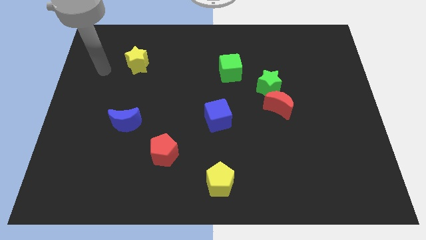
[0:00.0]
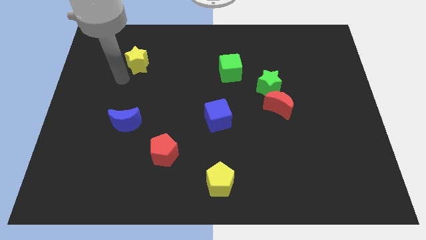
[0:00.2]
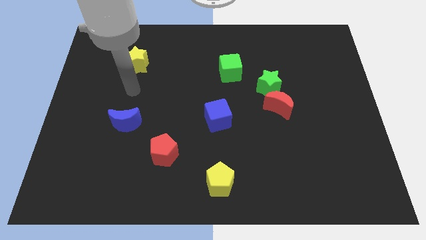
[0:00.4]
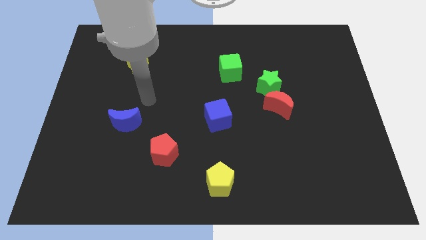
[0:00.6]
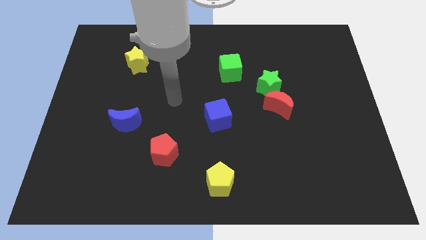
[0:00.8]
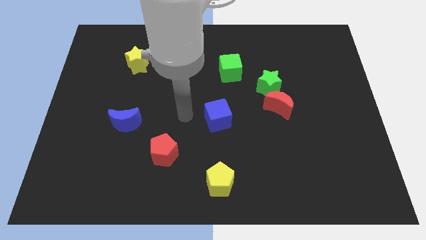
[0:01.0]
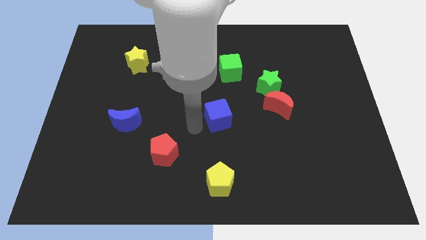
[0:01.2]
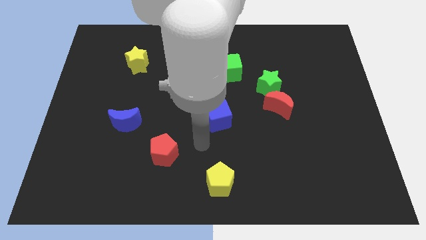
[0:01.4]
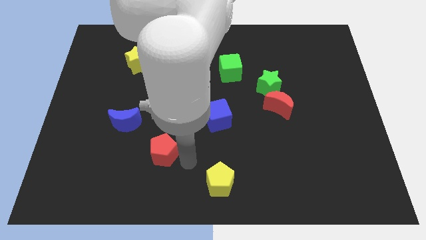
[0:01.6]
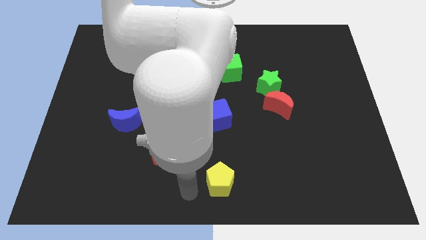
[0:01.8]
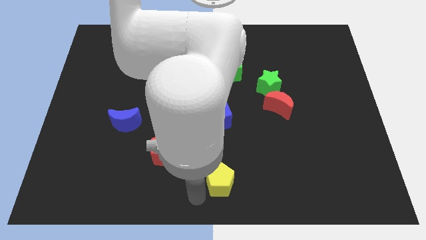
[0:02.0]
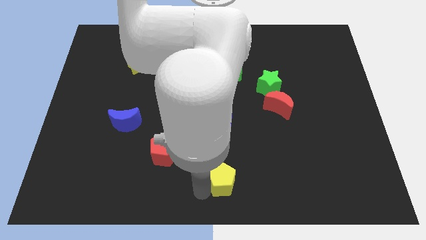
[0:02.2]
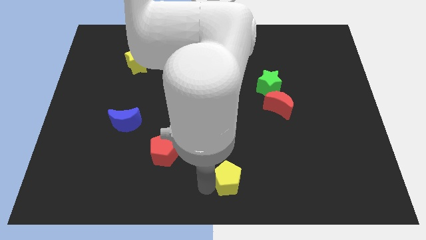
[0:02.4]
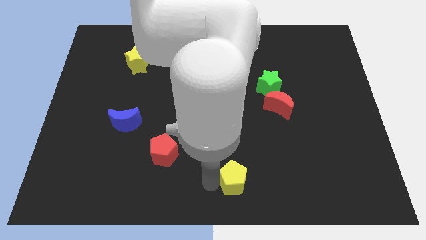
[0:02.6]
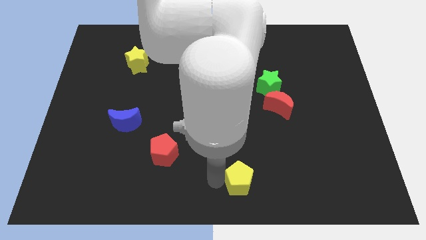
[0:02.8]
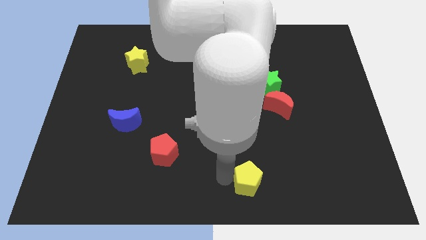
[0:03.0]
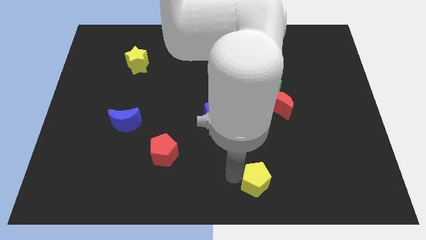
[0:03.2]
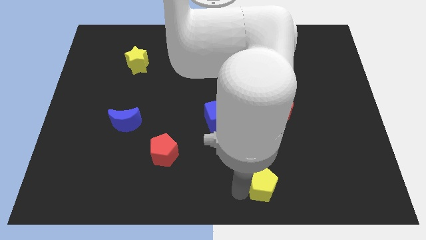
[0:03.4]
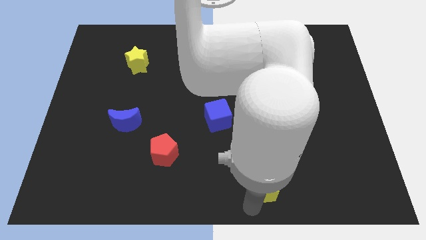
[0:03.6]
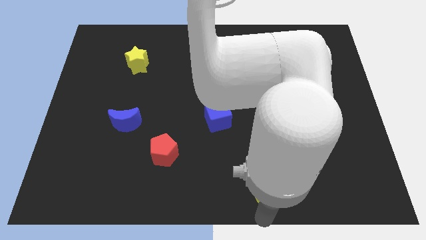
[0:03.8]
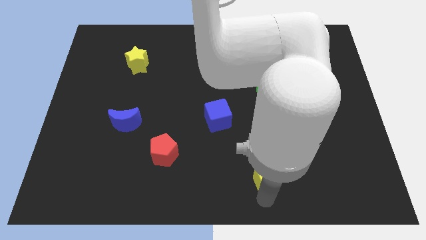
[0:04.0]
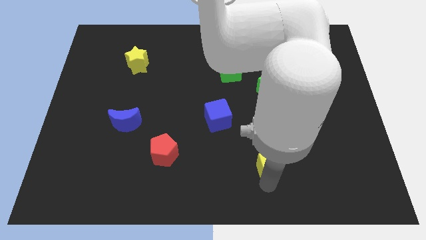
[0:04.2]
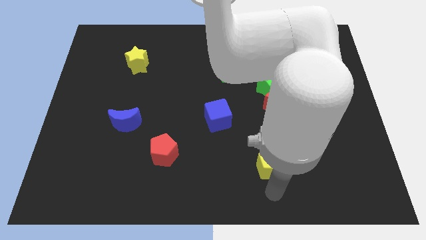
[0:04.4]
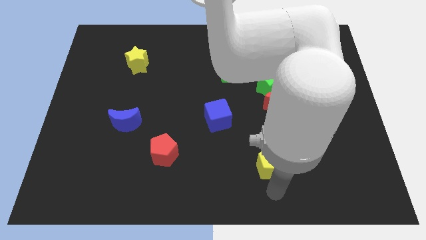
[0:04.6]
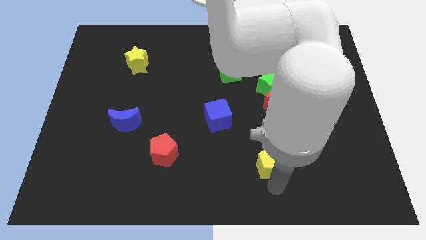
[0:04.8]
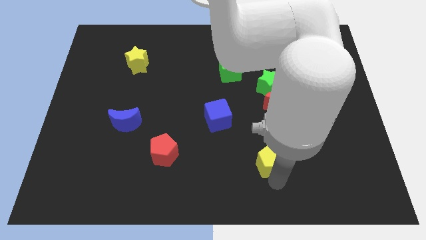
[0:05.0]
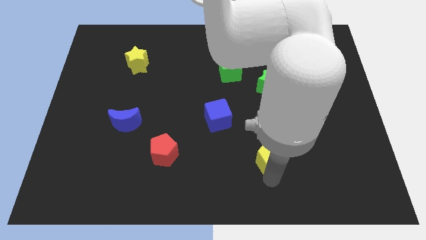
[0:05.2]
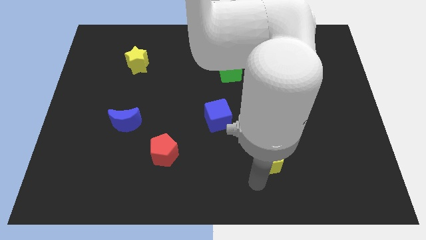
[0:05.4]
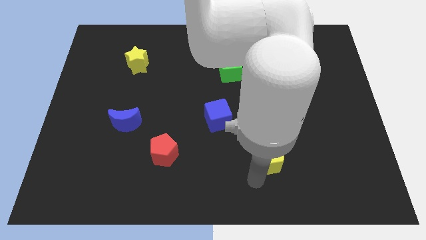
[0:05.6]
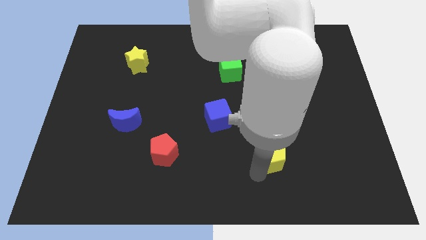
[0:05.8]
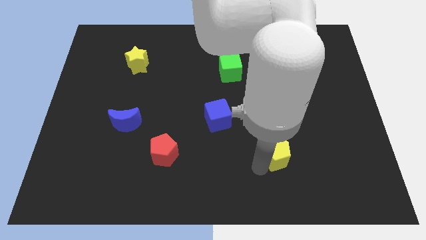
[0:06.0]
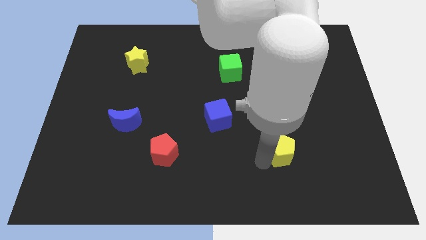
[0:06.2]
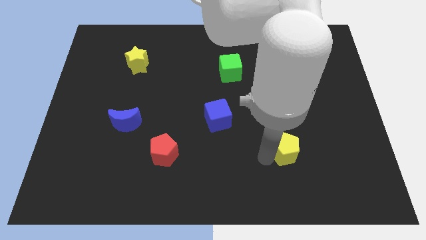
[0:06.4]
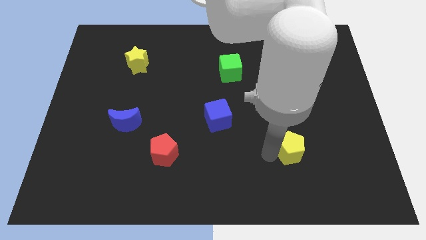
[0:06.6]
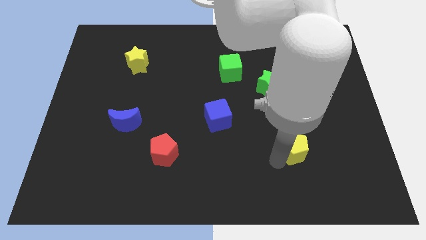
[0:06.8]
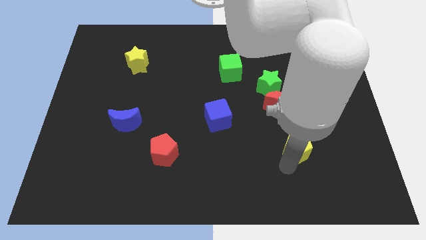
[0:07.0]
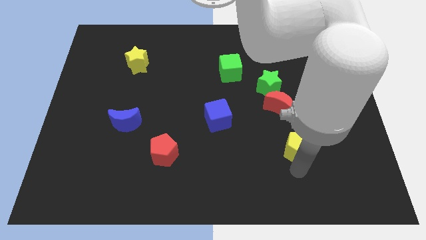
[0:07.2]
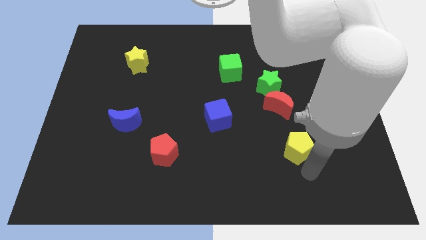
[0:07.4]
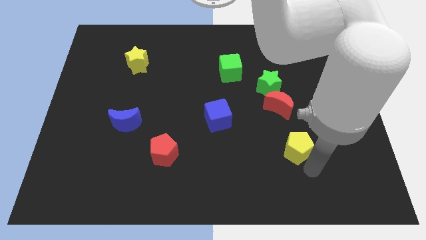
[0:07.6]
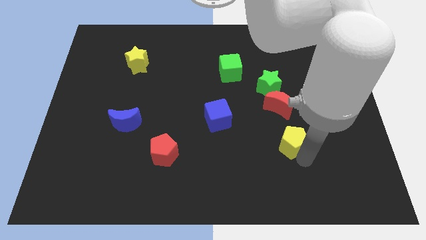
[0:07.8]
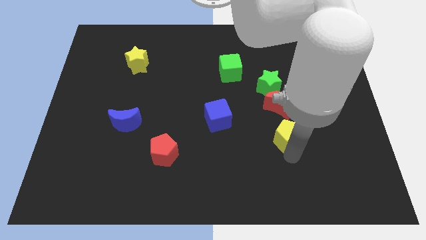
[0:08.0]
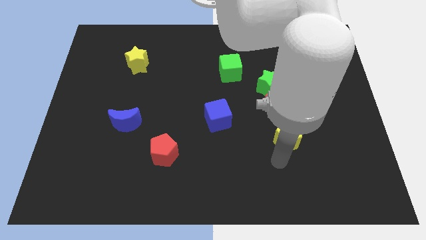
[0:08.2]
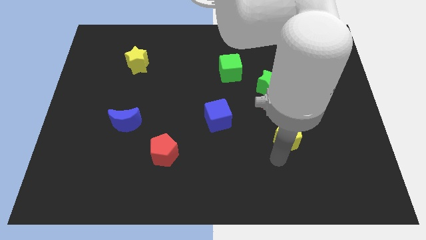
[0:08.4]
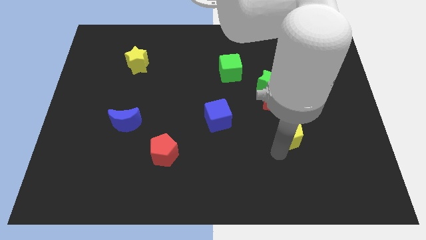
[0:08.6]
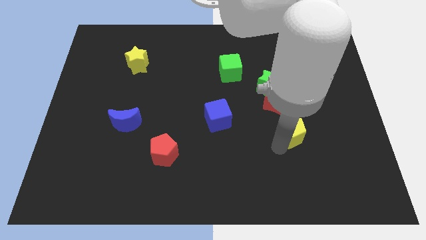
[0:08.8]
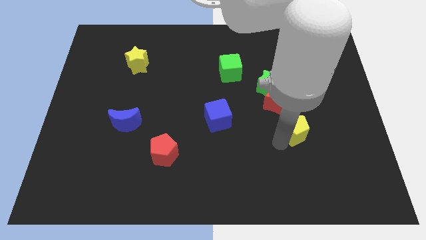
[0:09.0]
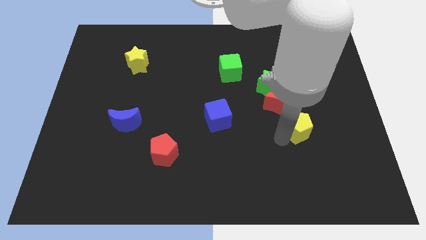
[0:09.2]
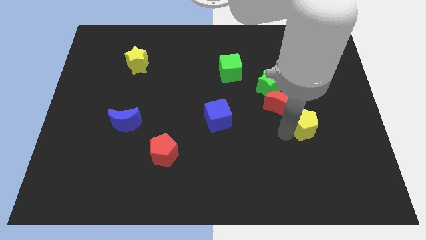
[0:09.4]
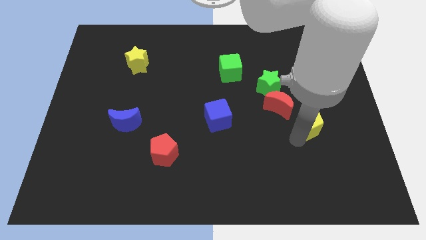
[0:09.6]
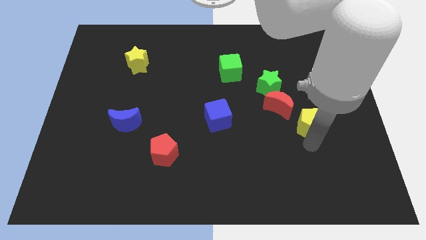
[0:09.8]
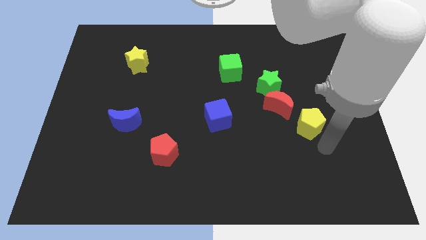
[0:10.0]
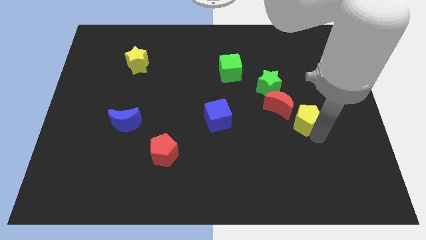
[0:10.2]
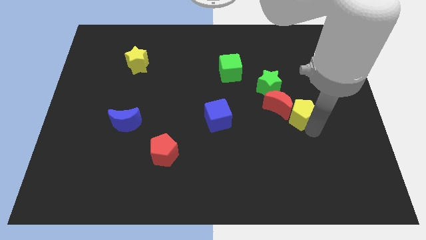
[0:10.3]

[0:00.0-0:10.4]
put the yellow pentagon to the bottom right of the green star

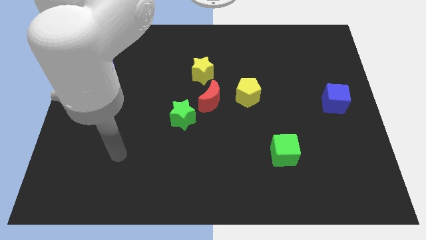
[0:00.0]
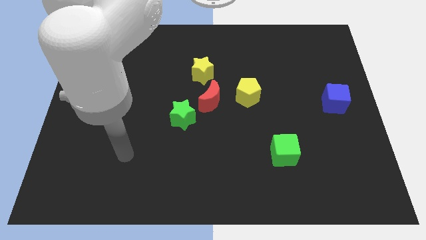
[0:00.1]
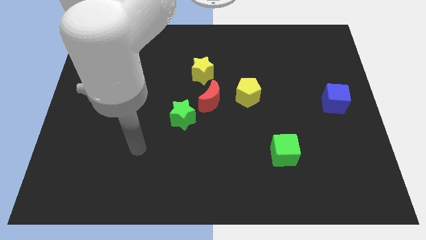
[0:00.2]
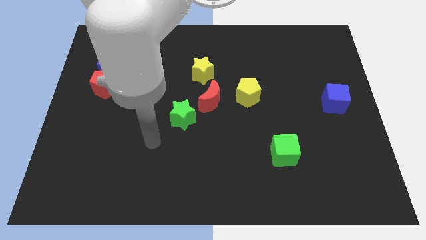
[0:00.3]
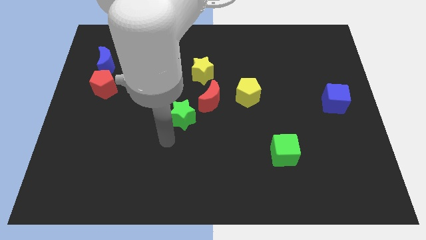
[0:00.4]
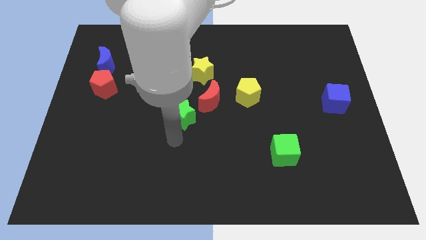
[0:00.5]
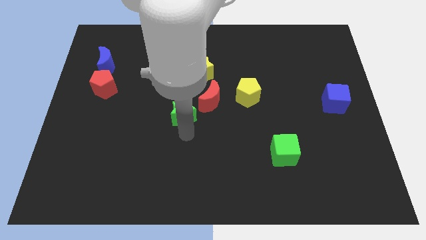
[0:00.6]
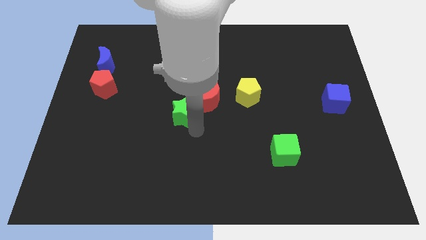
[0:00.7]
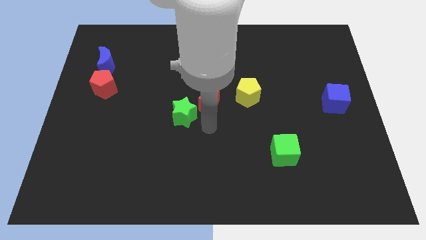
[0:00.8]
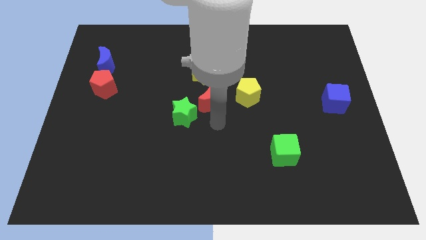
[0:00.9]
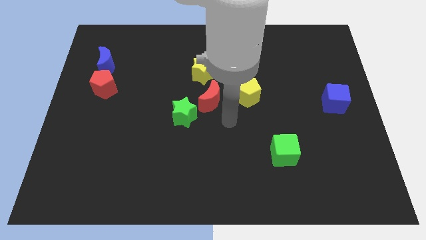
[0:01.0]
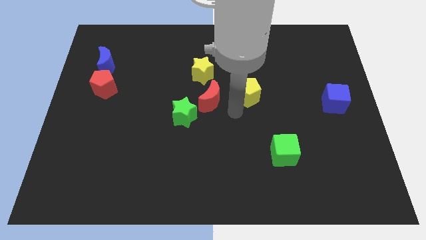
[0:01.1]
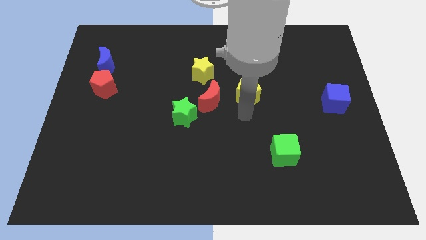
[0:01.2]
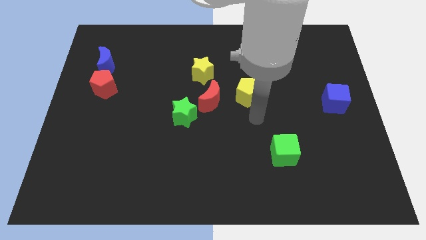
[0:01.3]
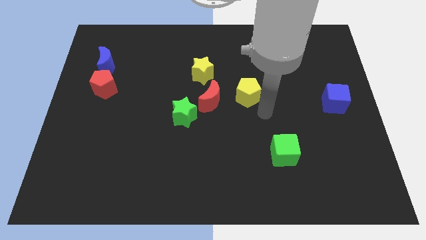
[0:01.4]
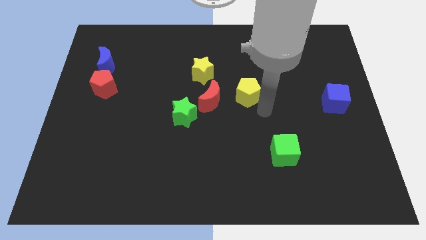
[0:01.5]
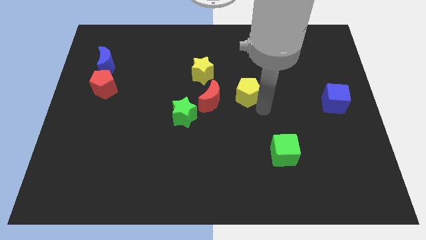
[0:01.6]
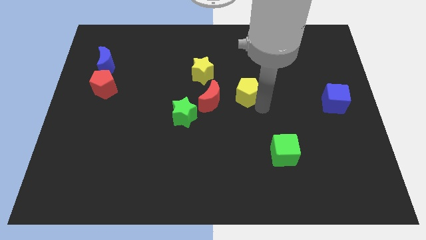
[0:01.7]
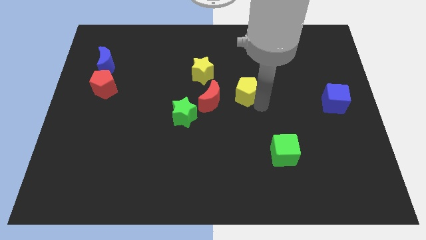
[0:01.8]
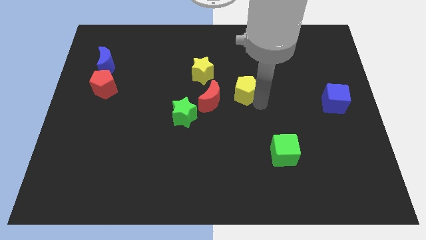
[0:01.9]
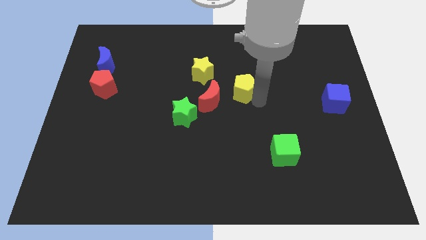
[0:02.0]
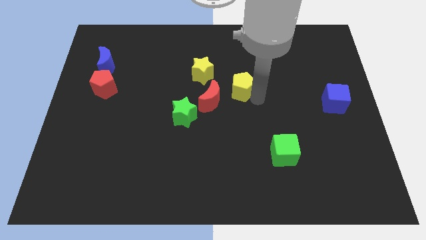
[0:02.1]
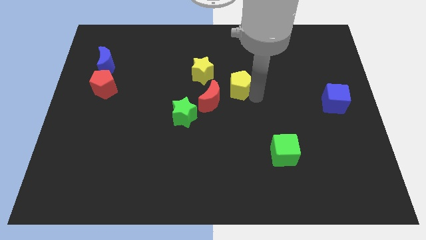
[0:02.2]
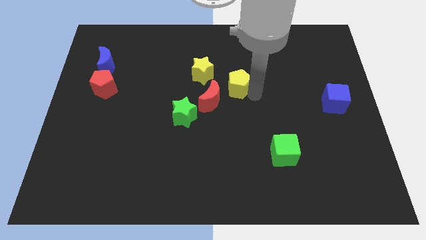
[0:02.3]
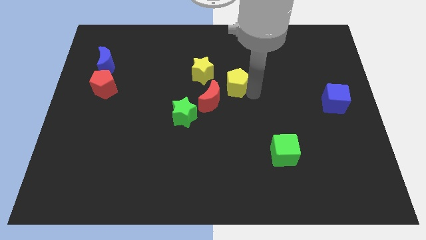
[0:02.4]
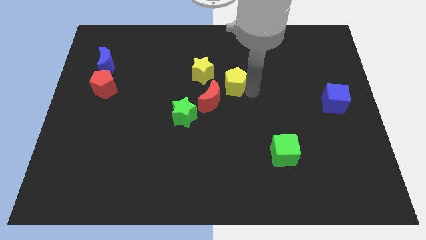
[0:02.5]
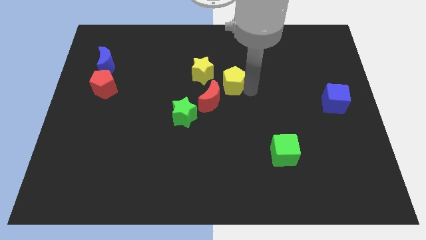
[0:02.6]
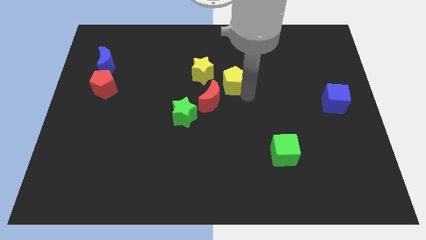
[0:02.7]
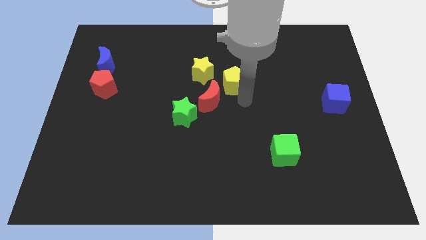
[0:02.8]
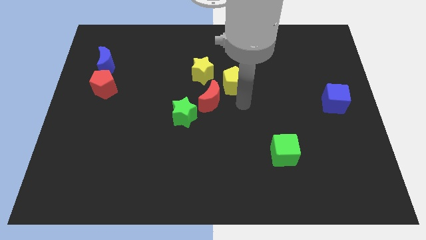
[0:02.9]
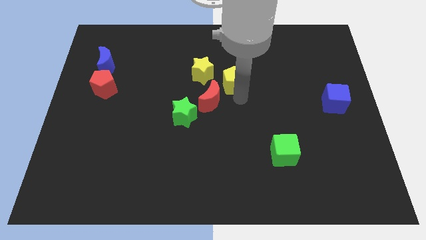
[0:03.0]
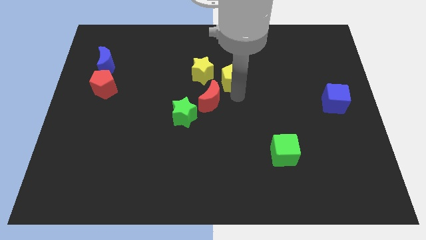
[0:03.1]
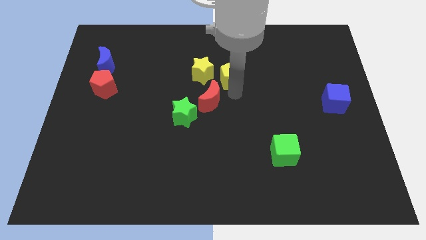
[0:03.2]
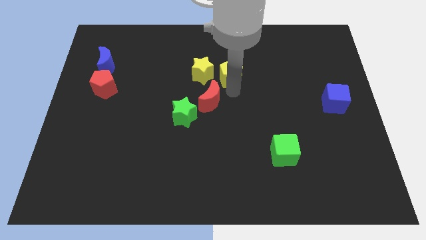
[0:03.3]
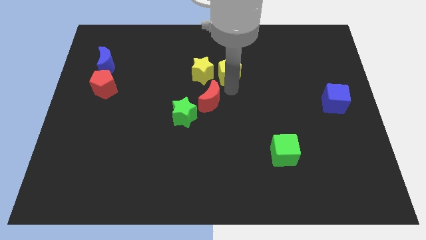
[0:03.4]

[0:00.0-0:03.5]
slide the yellow pentagon to the top right of the yellow star
